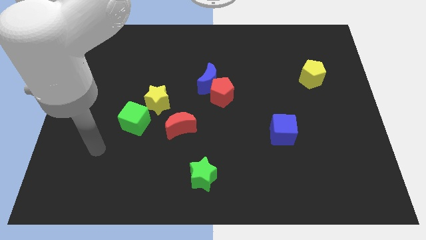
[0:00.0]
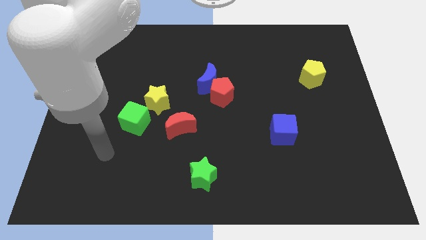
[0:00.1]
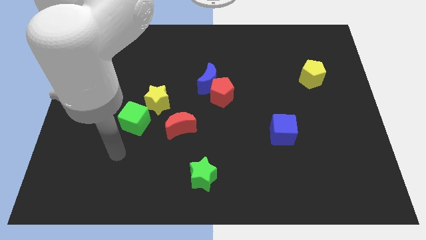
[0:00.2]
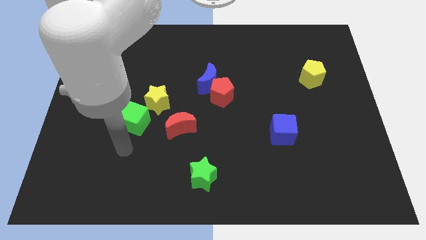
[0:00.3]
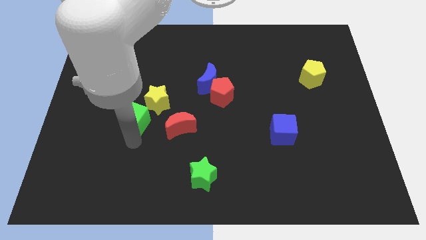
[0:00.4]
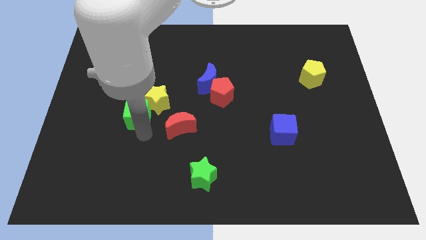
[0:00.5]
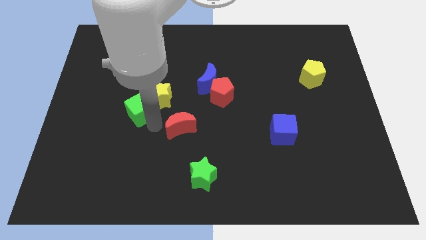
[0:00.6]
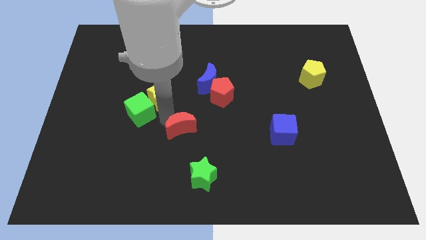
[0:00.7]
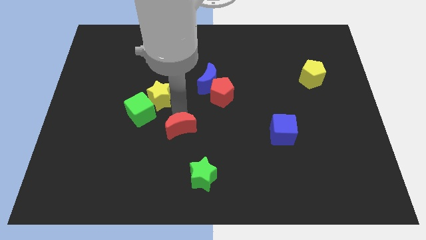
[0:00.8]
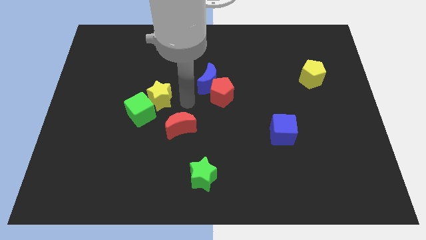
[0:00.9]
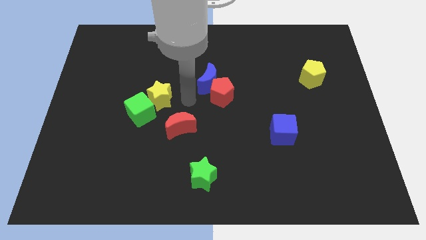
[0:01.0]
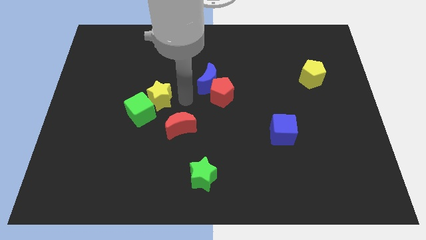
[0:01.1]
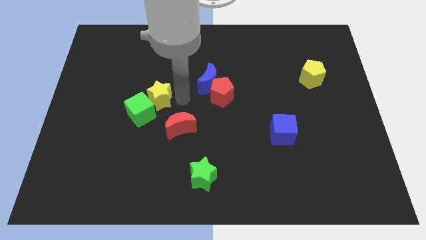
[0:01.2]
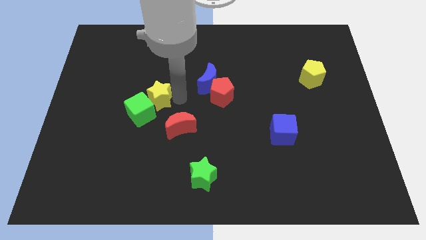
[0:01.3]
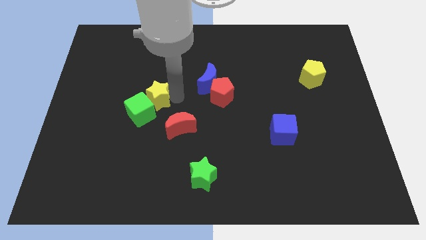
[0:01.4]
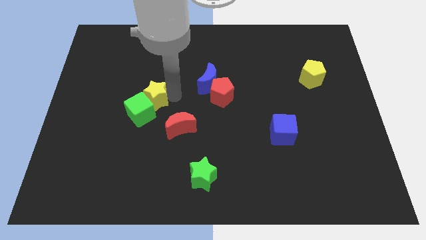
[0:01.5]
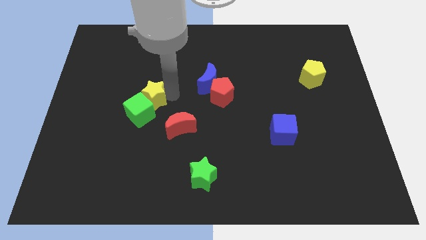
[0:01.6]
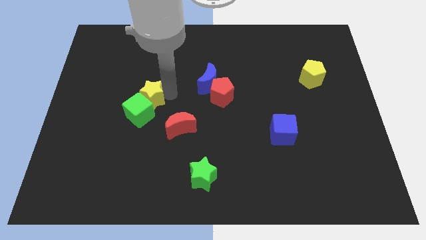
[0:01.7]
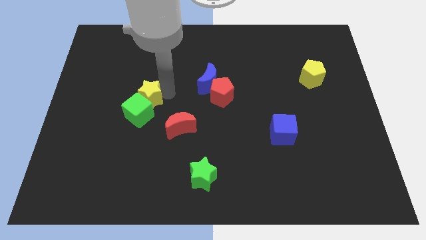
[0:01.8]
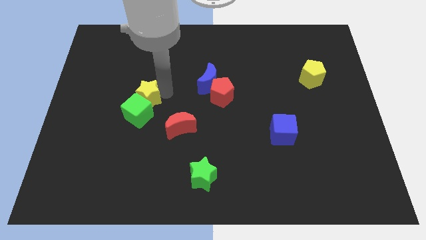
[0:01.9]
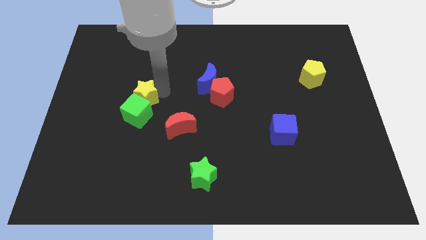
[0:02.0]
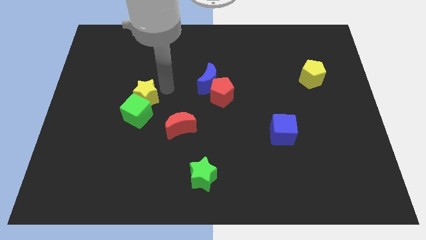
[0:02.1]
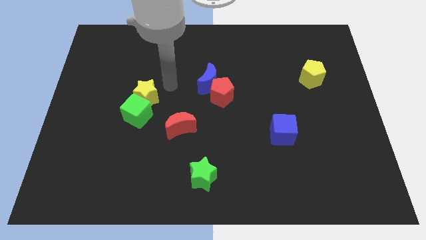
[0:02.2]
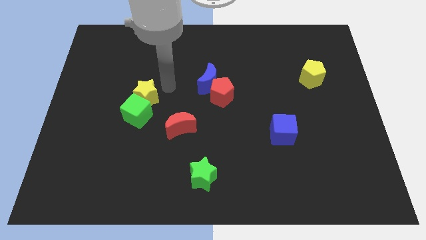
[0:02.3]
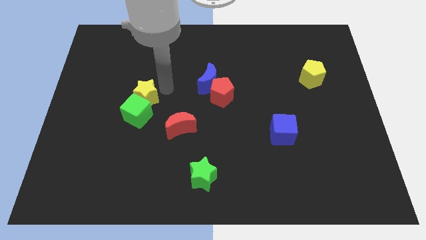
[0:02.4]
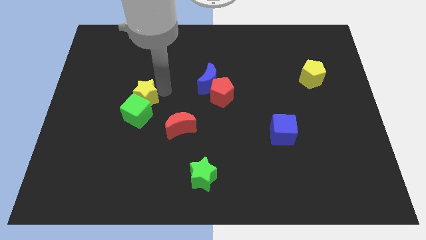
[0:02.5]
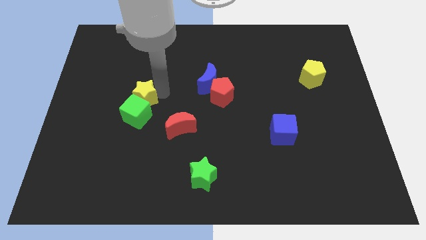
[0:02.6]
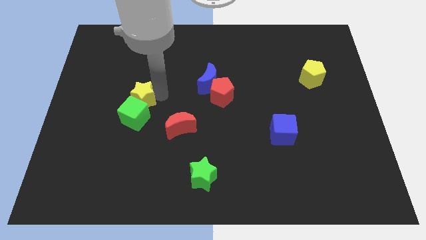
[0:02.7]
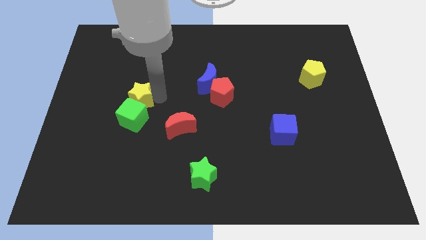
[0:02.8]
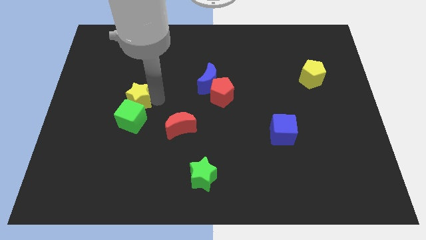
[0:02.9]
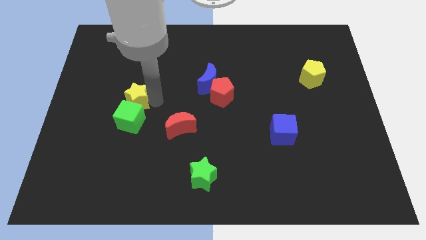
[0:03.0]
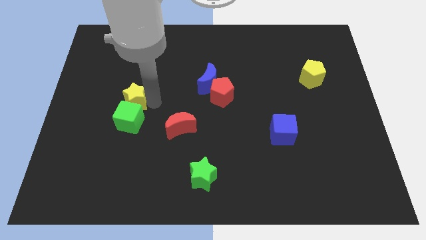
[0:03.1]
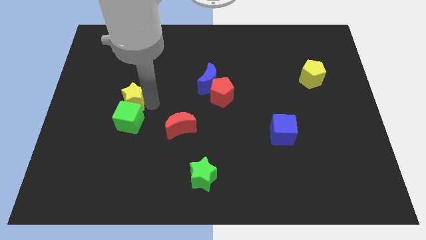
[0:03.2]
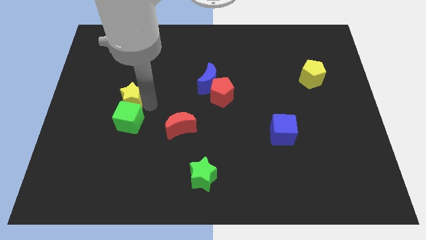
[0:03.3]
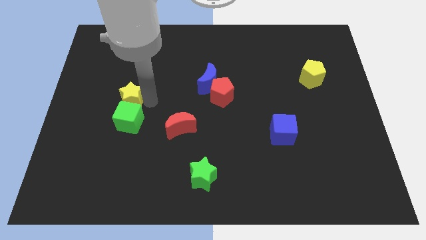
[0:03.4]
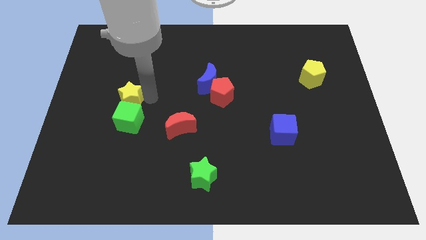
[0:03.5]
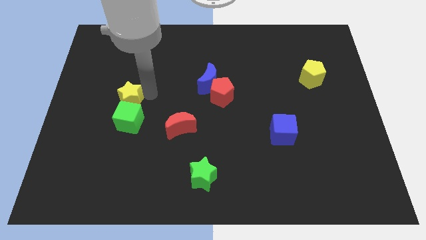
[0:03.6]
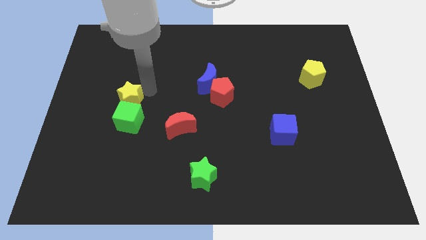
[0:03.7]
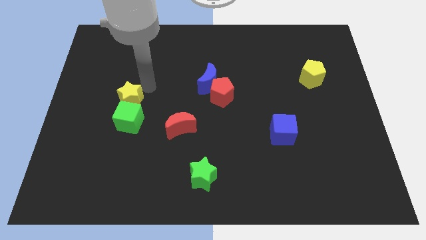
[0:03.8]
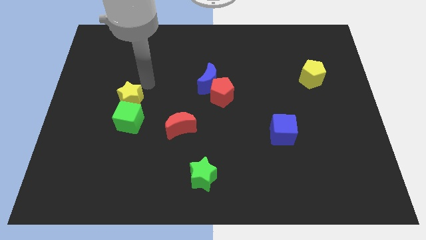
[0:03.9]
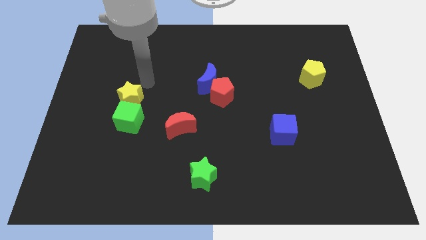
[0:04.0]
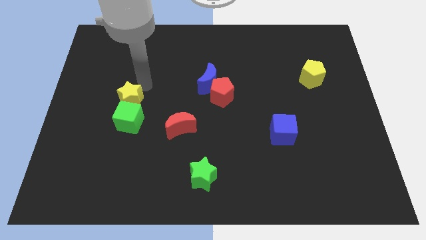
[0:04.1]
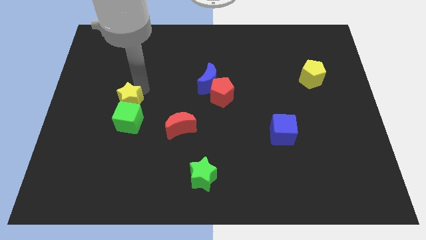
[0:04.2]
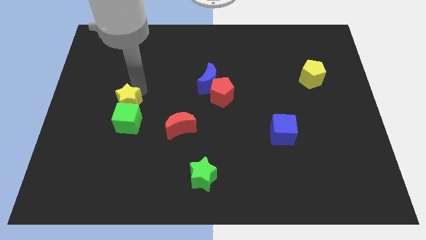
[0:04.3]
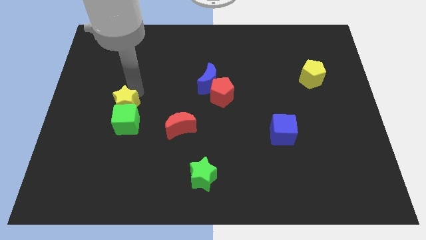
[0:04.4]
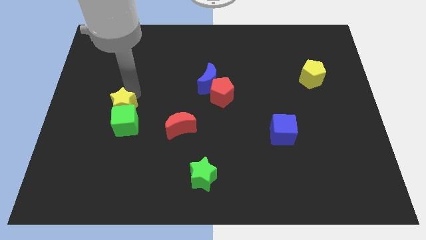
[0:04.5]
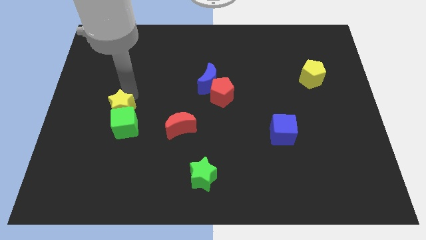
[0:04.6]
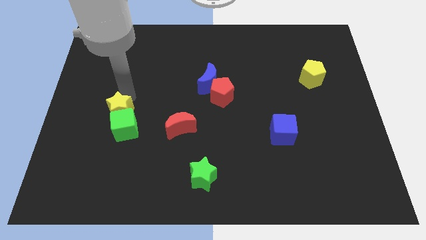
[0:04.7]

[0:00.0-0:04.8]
slightly slide the yellow star downwards and to the left diagonally

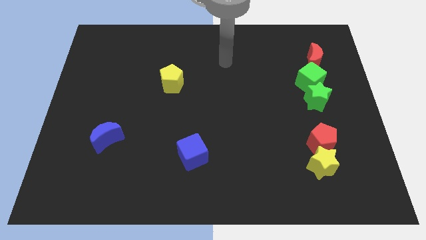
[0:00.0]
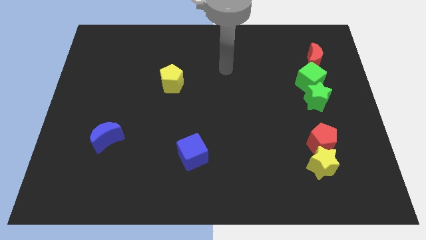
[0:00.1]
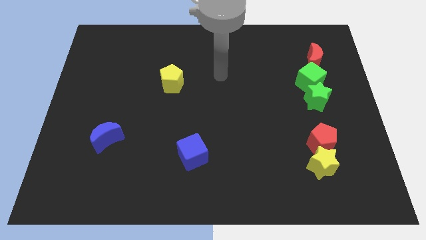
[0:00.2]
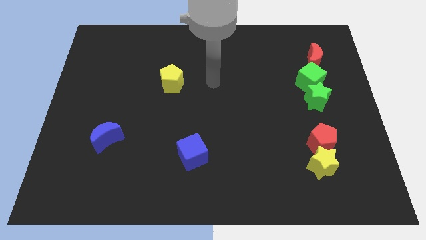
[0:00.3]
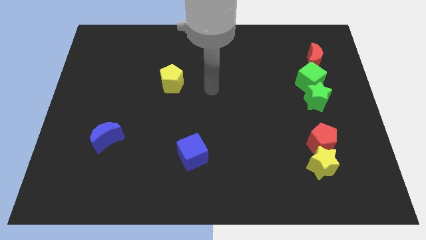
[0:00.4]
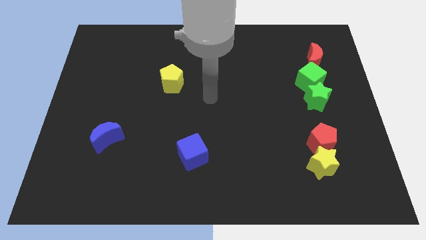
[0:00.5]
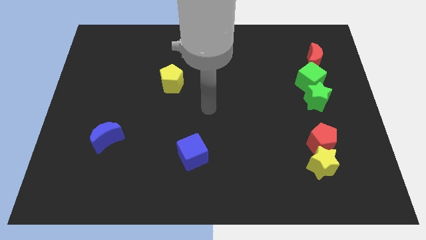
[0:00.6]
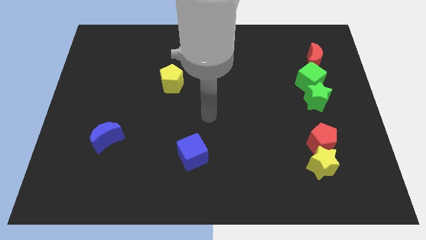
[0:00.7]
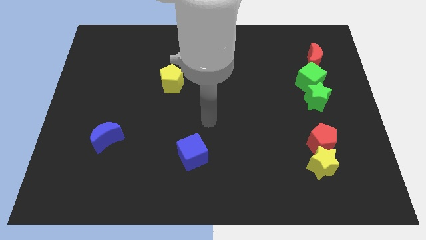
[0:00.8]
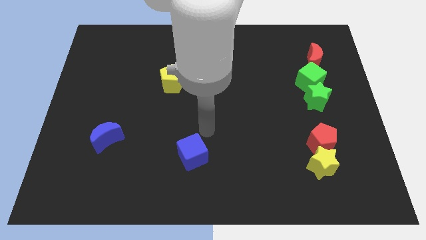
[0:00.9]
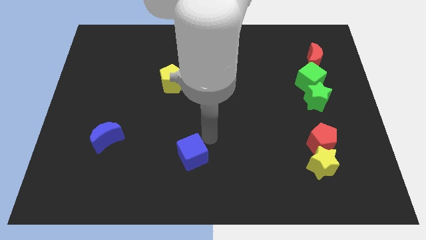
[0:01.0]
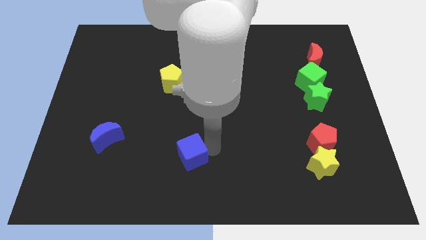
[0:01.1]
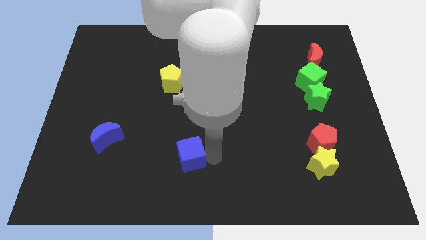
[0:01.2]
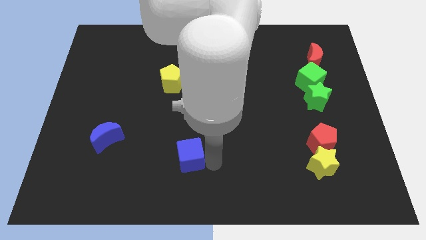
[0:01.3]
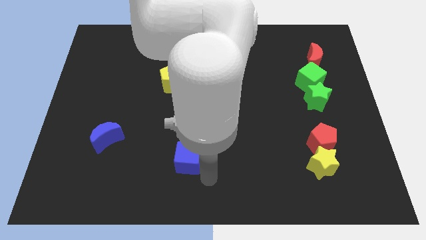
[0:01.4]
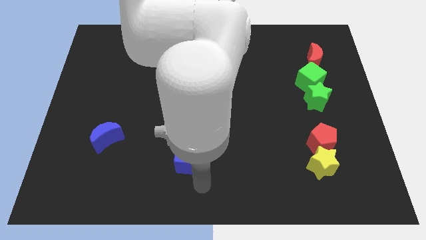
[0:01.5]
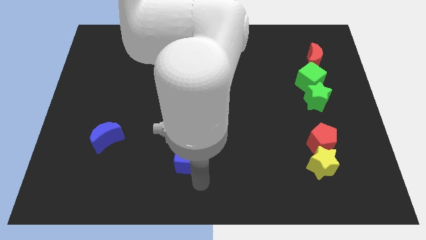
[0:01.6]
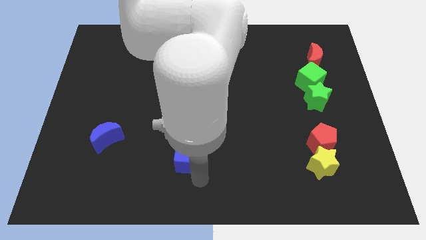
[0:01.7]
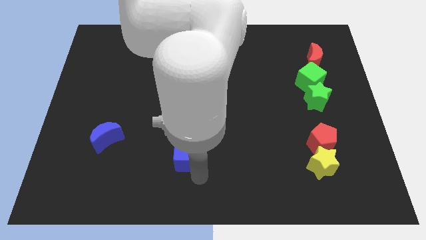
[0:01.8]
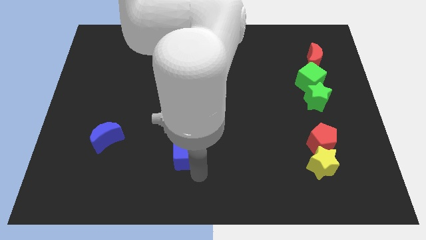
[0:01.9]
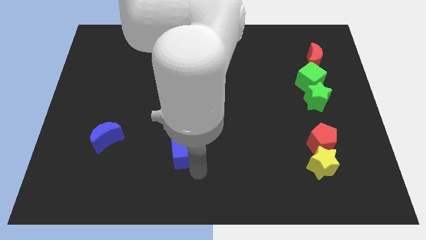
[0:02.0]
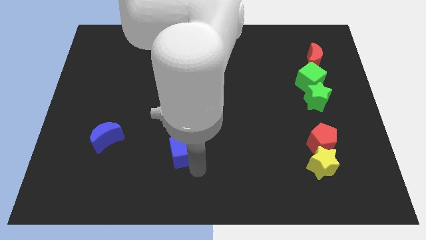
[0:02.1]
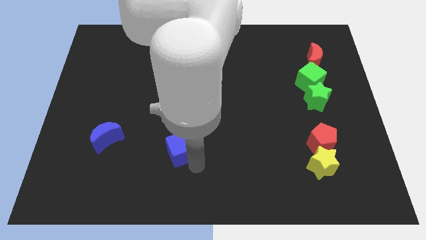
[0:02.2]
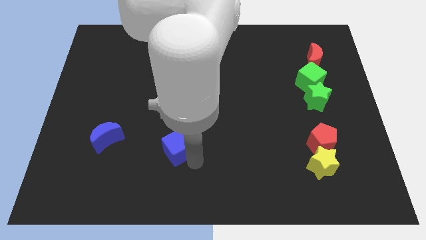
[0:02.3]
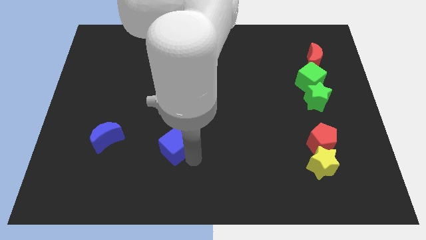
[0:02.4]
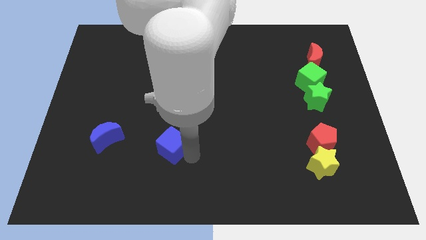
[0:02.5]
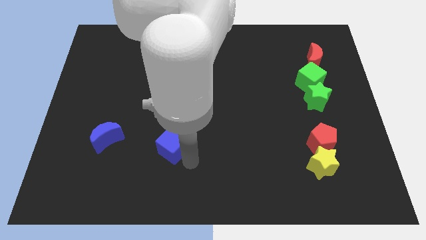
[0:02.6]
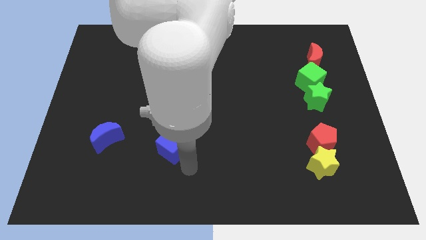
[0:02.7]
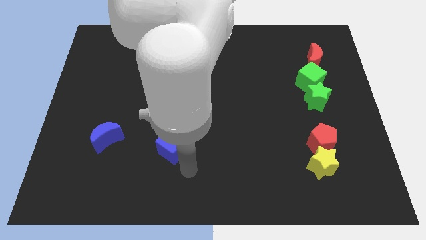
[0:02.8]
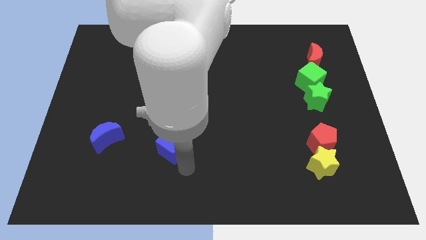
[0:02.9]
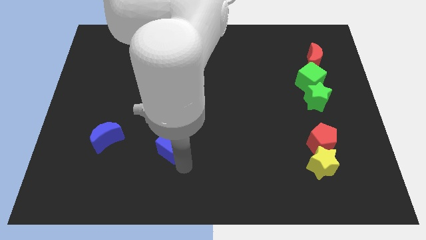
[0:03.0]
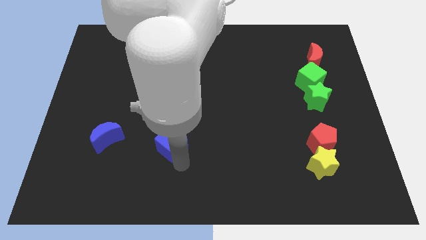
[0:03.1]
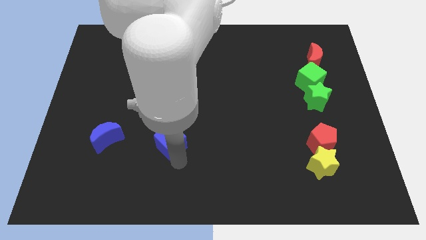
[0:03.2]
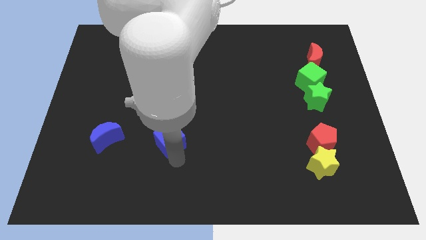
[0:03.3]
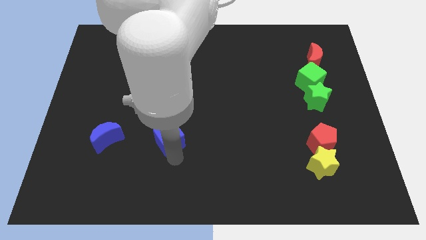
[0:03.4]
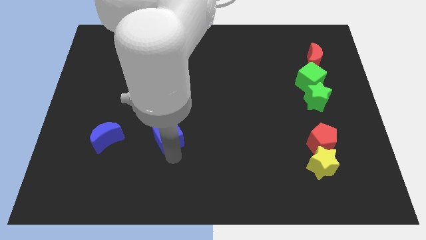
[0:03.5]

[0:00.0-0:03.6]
slightly move the blue cube upwards and then to the left
